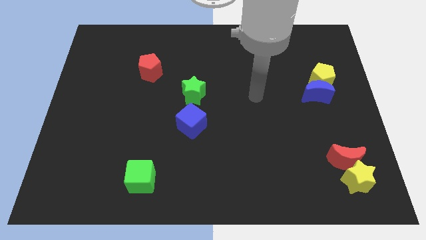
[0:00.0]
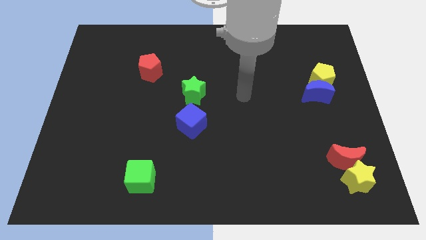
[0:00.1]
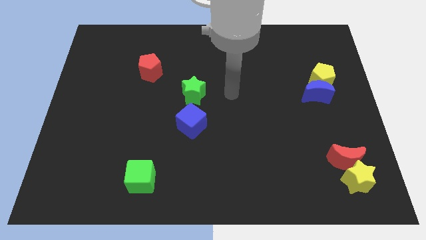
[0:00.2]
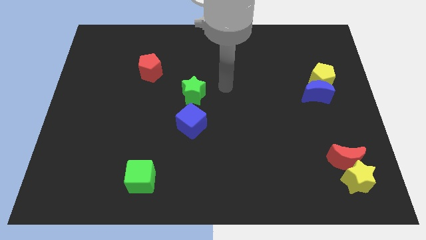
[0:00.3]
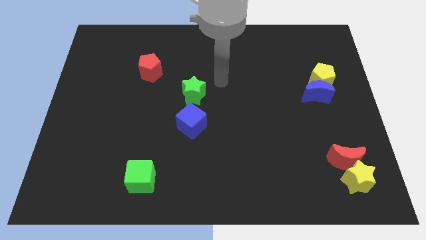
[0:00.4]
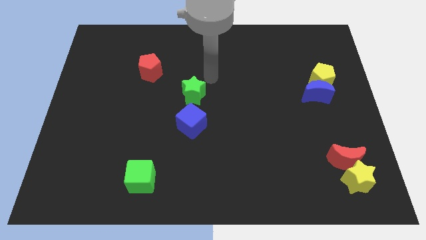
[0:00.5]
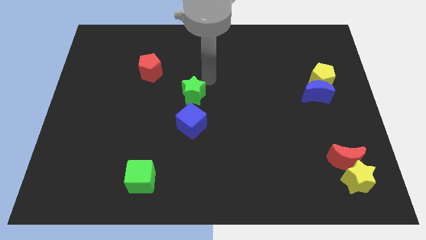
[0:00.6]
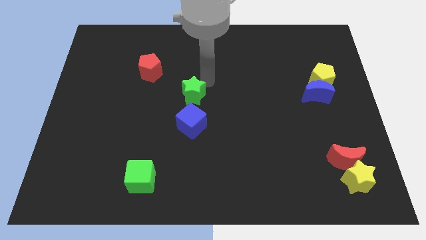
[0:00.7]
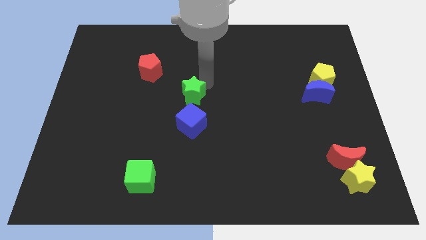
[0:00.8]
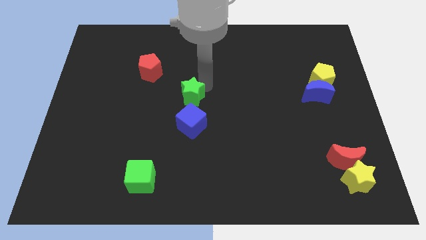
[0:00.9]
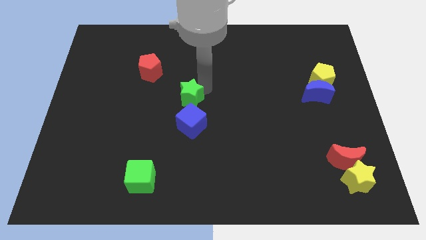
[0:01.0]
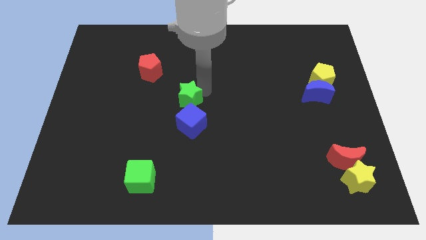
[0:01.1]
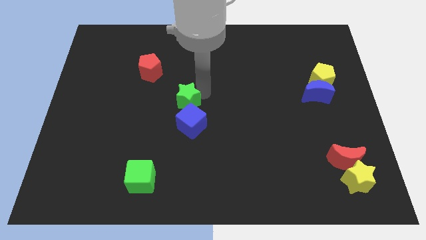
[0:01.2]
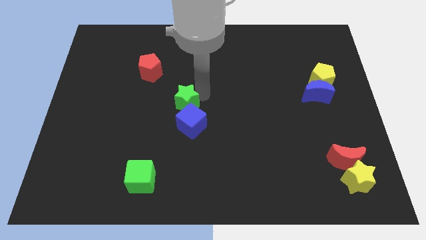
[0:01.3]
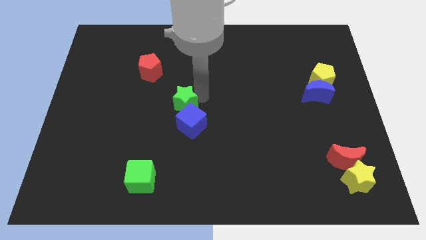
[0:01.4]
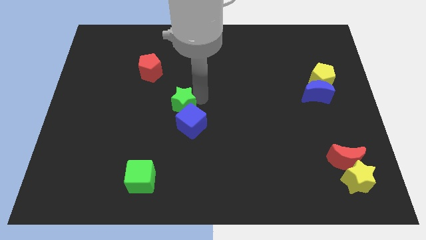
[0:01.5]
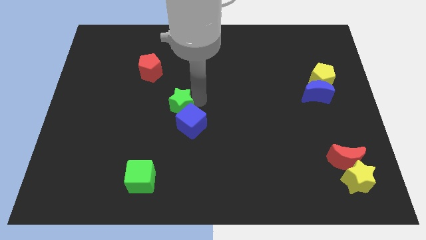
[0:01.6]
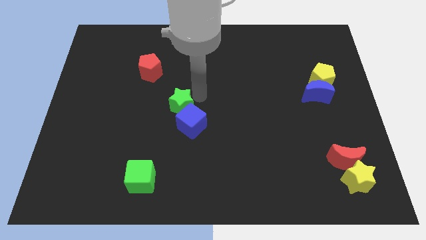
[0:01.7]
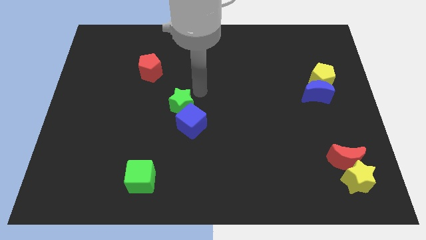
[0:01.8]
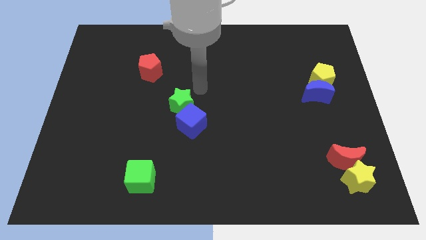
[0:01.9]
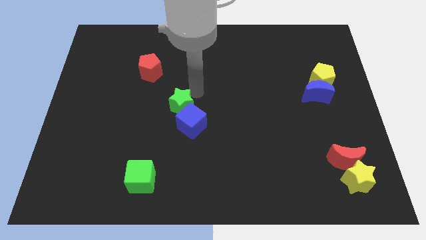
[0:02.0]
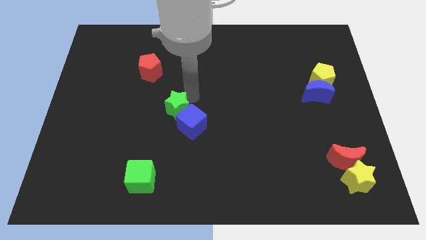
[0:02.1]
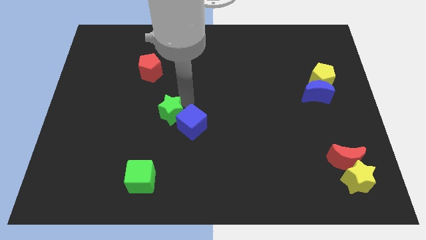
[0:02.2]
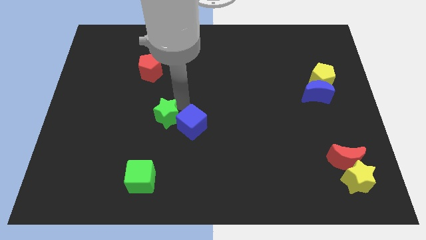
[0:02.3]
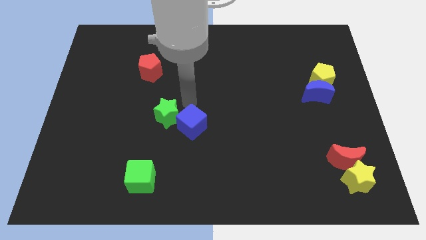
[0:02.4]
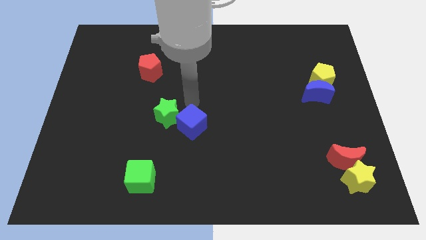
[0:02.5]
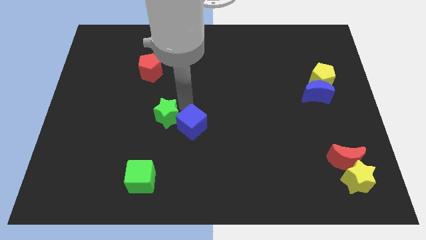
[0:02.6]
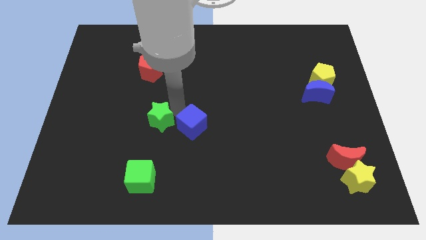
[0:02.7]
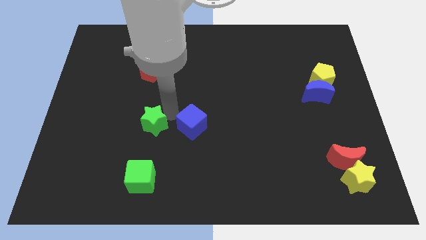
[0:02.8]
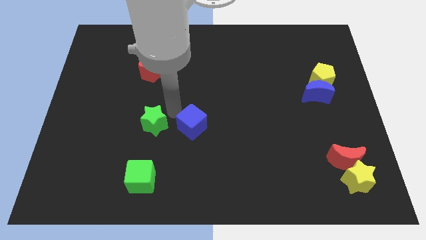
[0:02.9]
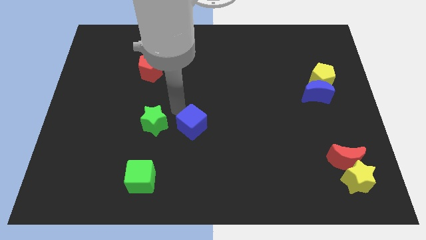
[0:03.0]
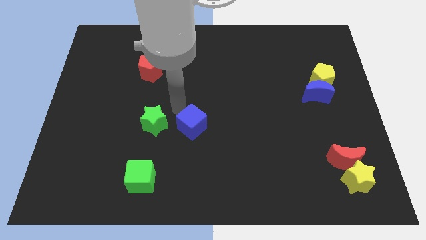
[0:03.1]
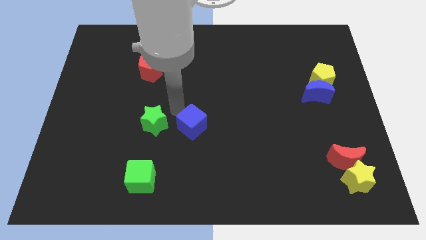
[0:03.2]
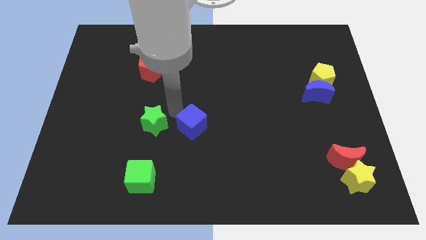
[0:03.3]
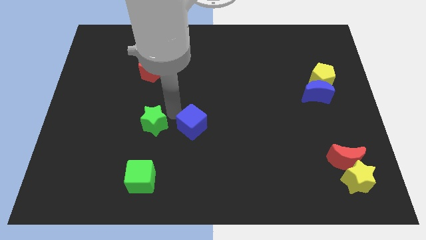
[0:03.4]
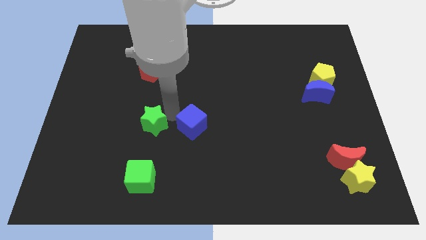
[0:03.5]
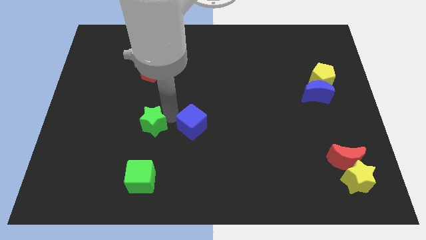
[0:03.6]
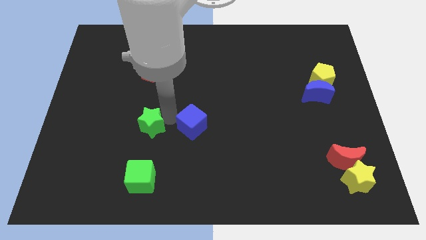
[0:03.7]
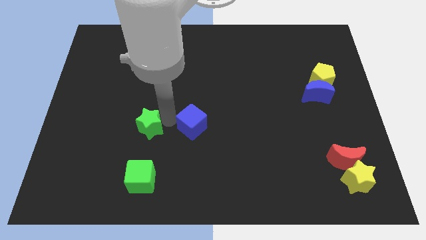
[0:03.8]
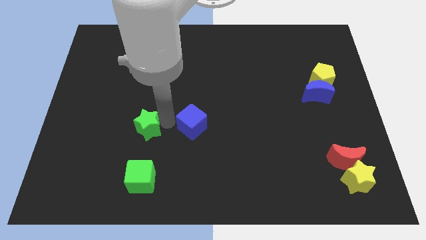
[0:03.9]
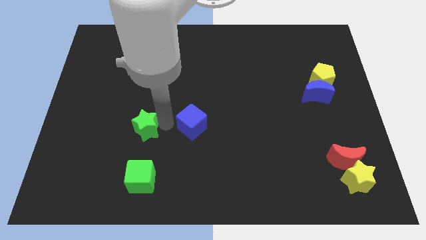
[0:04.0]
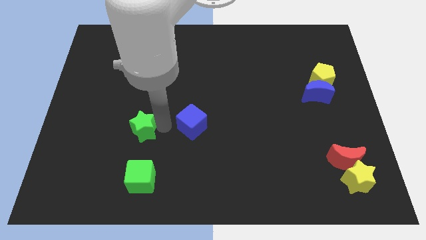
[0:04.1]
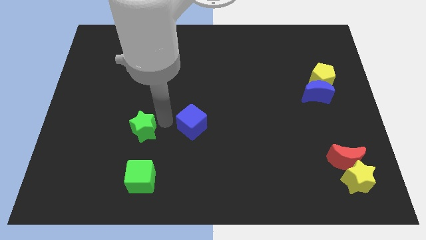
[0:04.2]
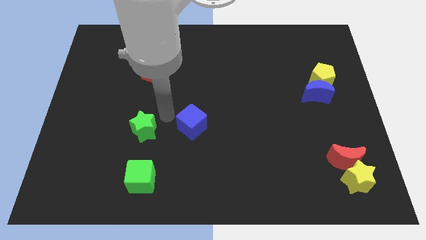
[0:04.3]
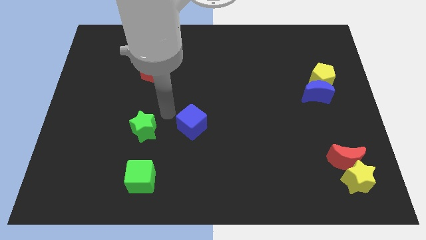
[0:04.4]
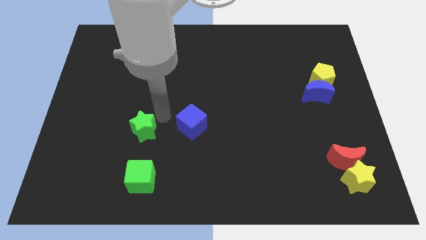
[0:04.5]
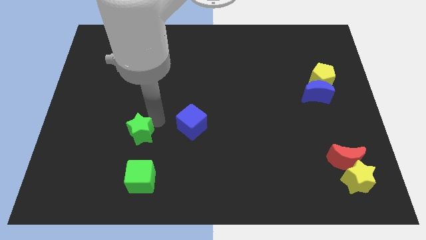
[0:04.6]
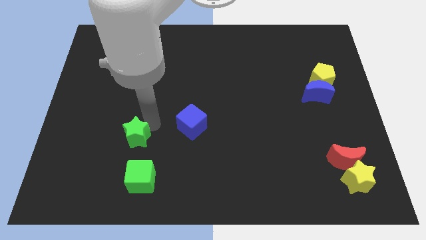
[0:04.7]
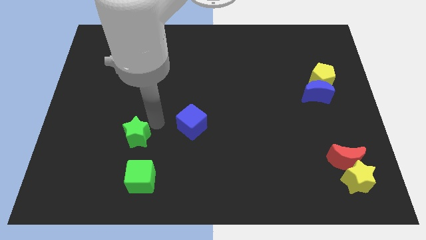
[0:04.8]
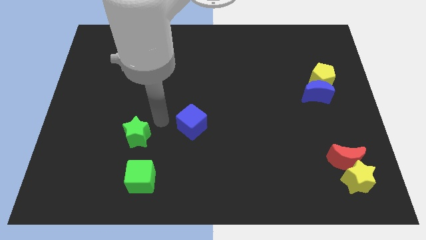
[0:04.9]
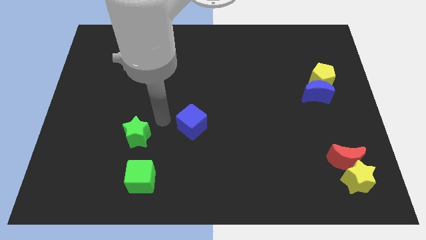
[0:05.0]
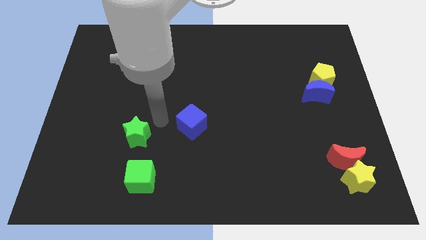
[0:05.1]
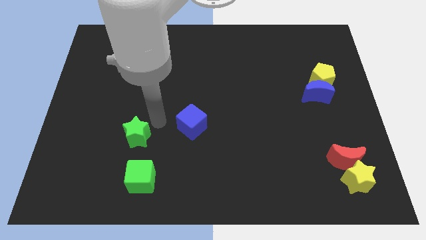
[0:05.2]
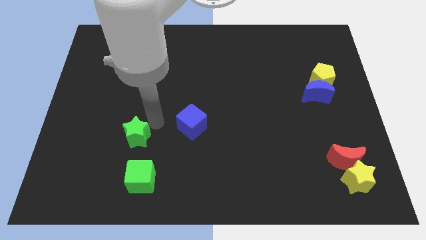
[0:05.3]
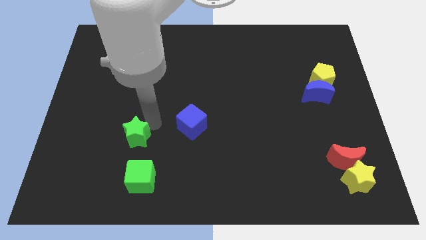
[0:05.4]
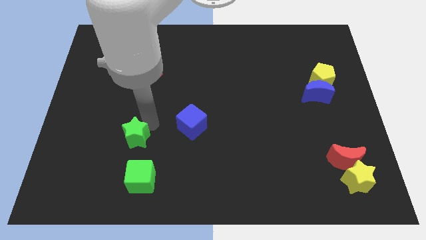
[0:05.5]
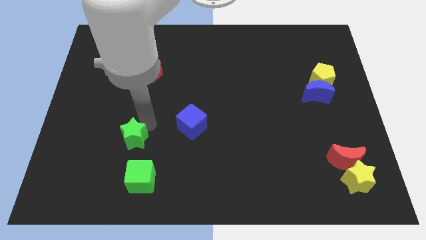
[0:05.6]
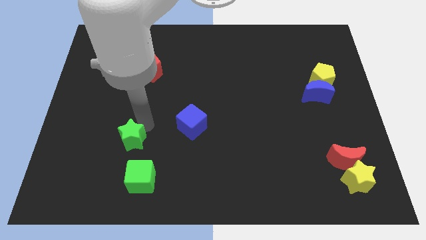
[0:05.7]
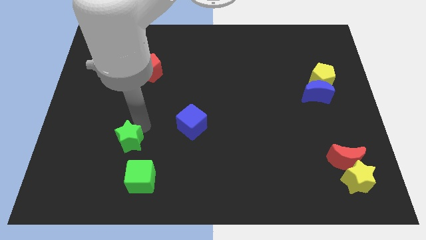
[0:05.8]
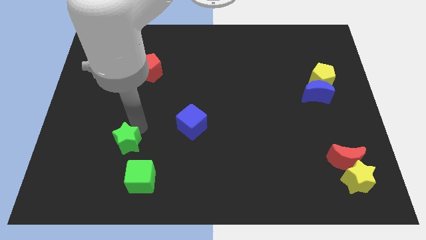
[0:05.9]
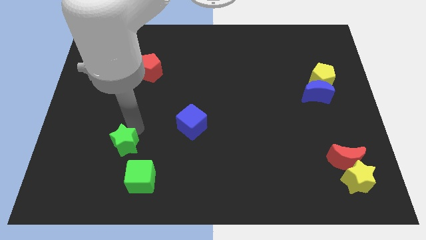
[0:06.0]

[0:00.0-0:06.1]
slide the green star down and then to the left

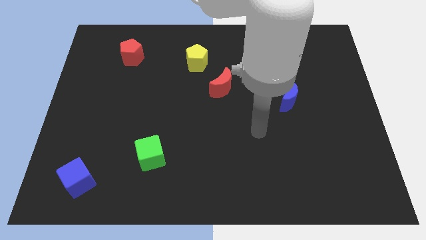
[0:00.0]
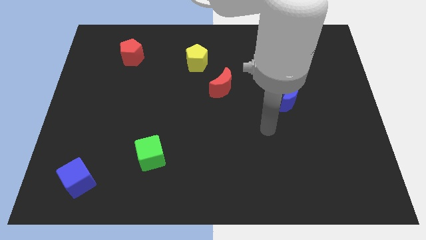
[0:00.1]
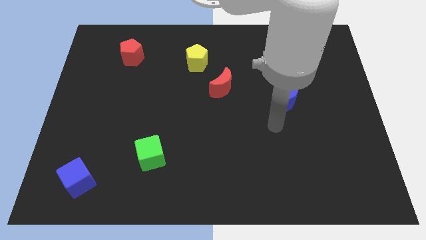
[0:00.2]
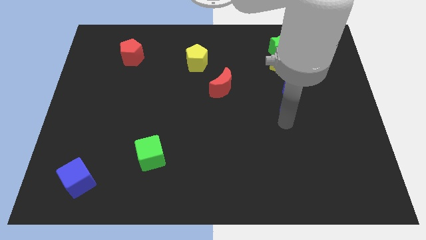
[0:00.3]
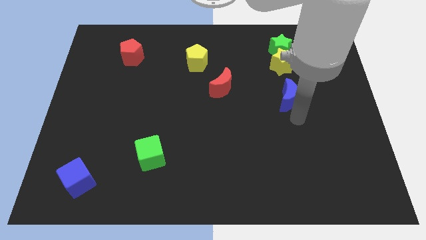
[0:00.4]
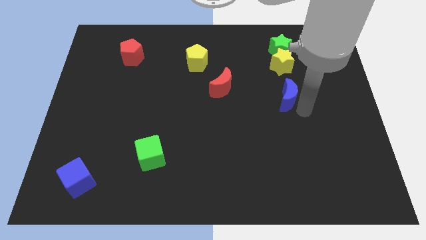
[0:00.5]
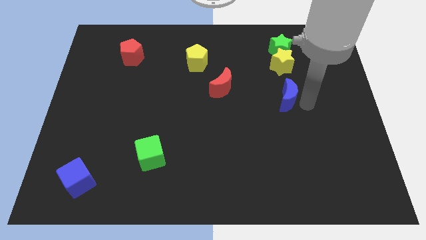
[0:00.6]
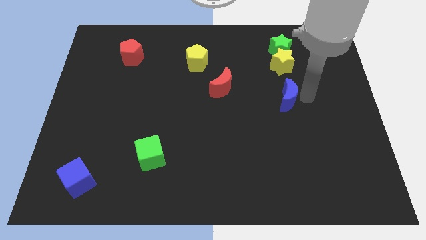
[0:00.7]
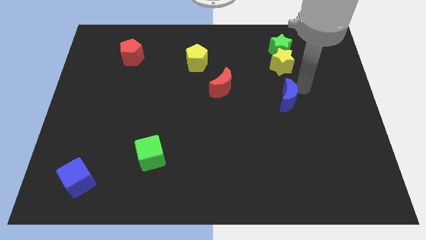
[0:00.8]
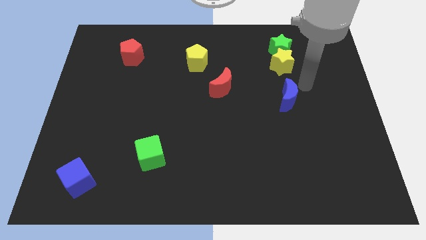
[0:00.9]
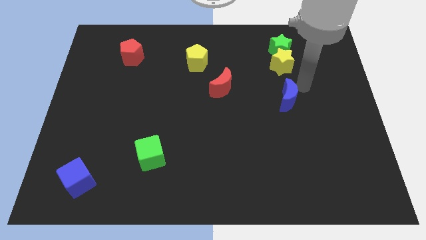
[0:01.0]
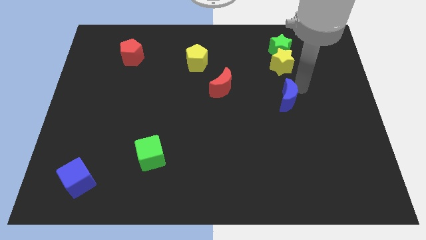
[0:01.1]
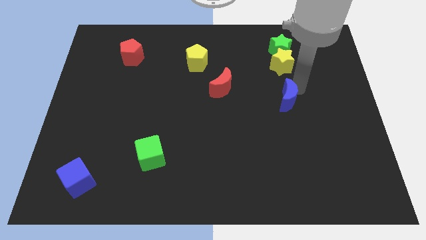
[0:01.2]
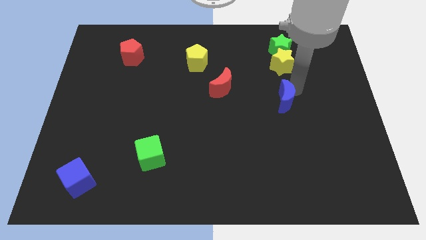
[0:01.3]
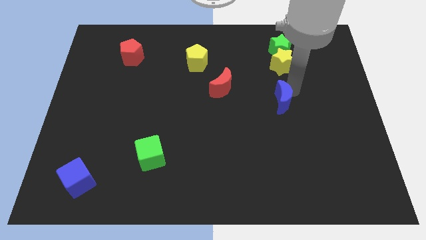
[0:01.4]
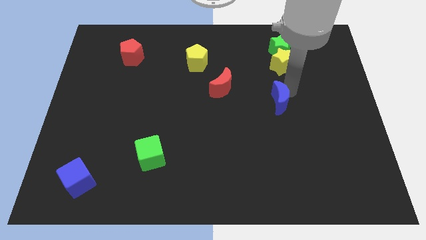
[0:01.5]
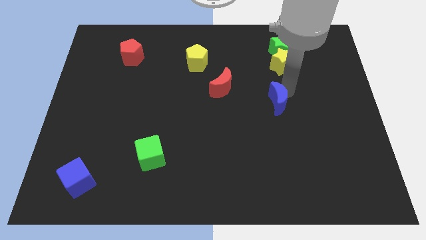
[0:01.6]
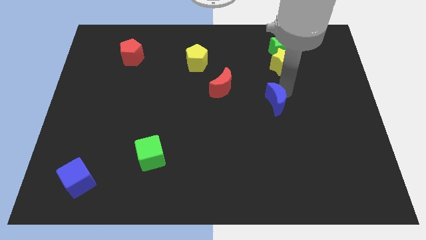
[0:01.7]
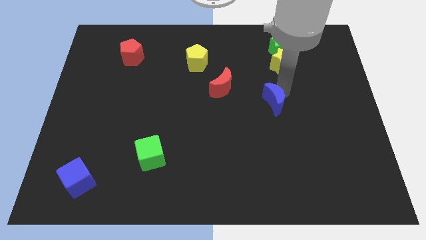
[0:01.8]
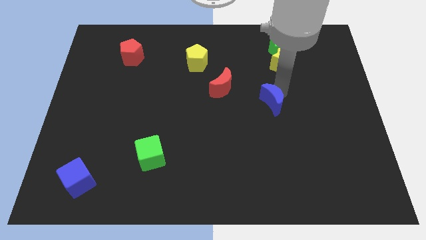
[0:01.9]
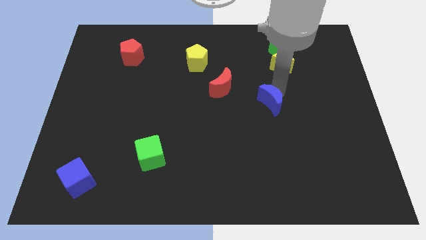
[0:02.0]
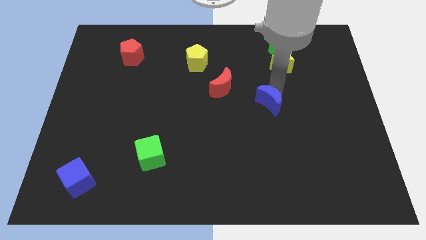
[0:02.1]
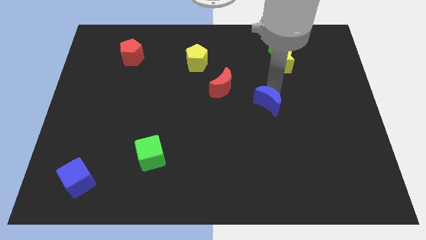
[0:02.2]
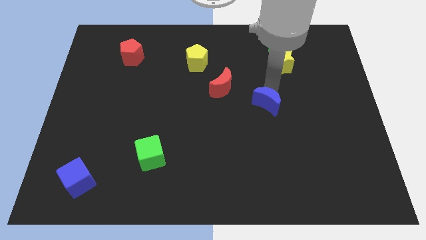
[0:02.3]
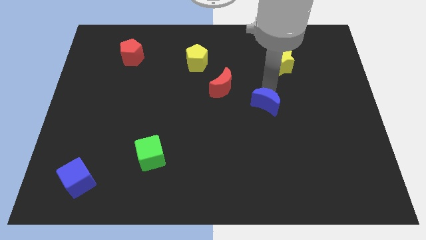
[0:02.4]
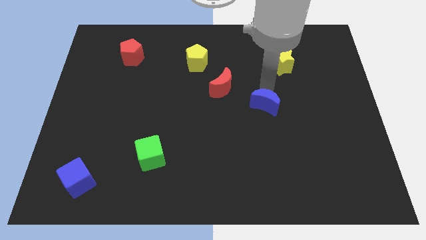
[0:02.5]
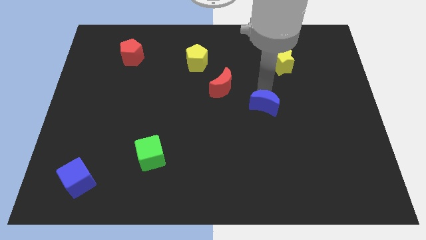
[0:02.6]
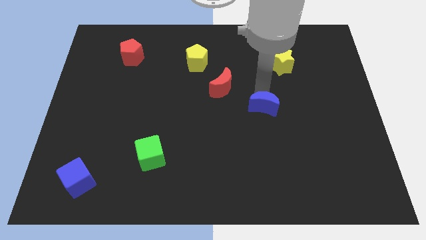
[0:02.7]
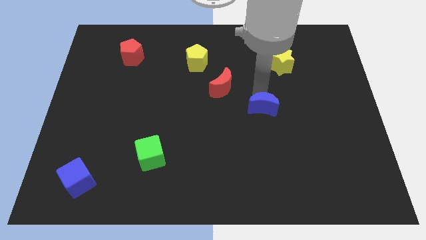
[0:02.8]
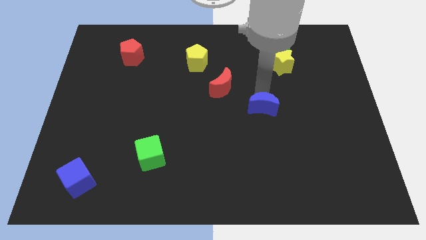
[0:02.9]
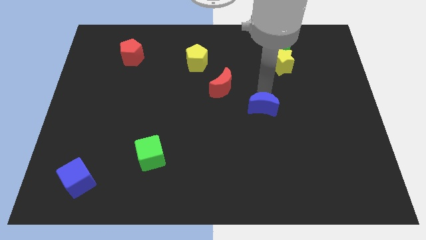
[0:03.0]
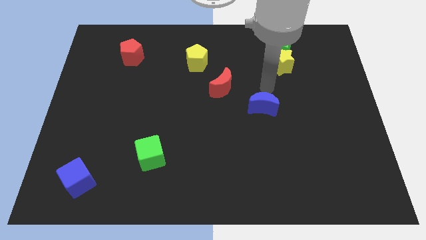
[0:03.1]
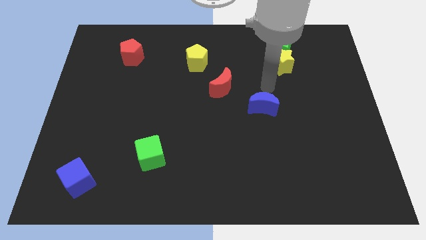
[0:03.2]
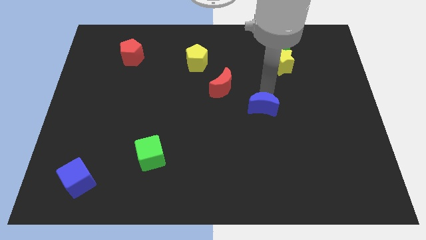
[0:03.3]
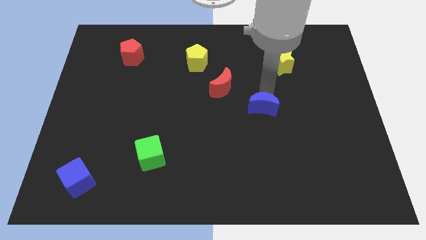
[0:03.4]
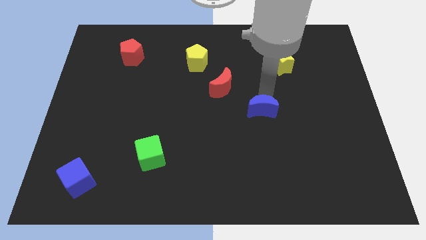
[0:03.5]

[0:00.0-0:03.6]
slightly slide the blue moon diagonally down and left
